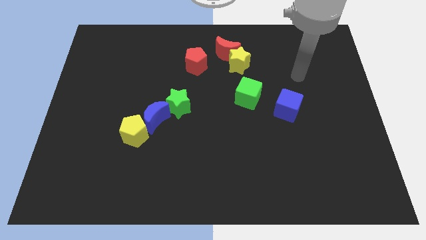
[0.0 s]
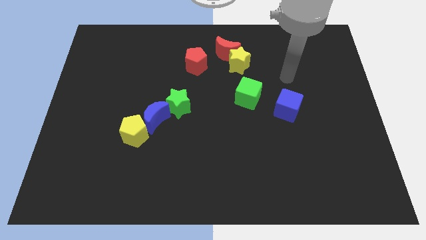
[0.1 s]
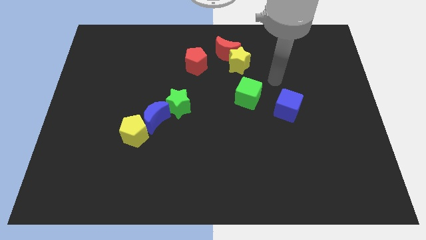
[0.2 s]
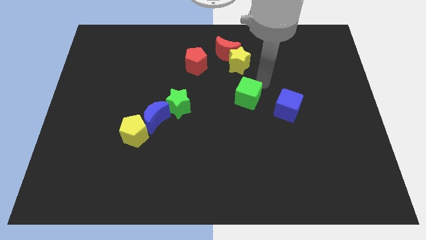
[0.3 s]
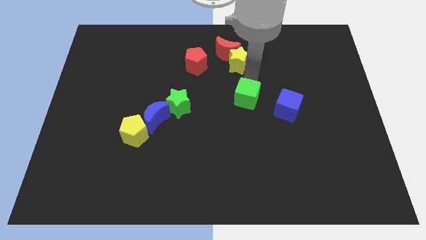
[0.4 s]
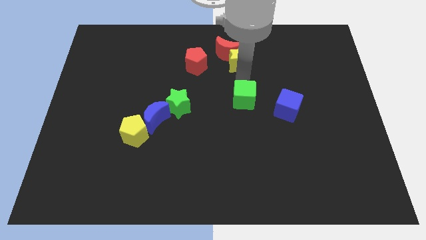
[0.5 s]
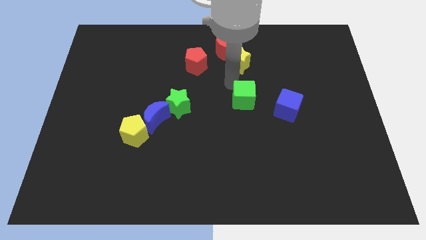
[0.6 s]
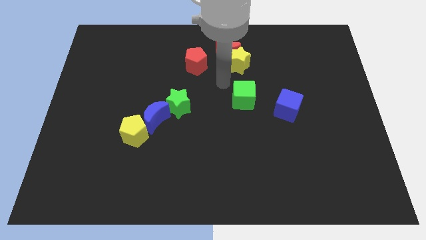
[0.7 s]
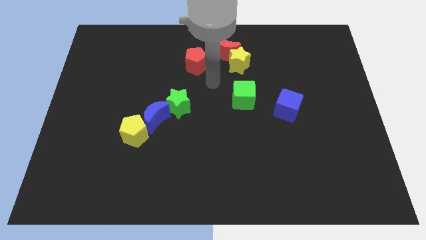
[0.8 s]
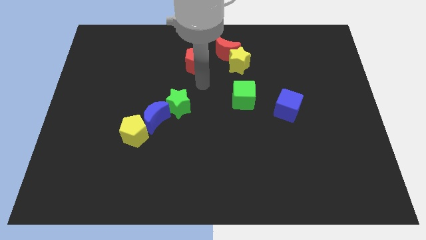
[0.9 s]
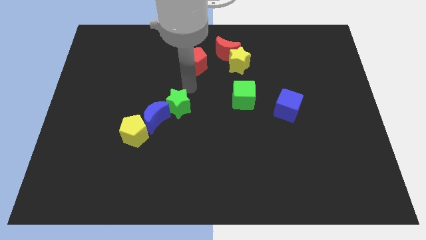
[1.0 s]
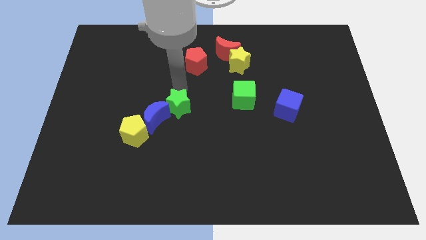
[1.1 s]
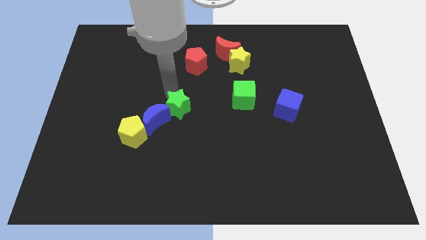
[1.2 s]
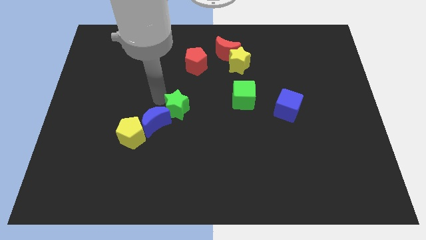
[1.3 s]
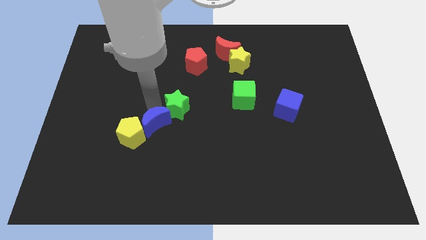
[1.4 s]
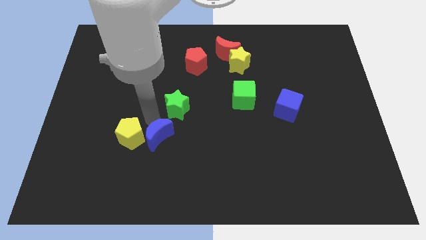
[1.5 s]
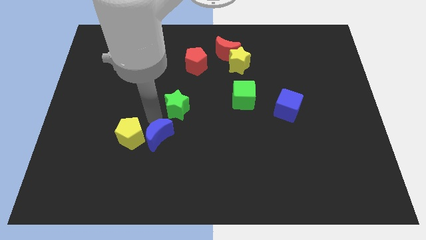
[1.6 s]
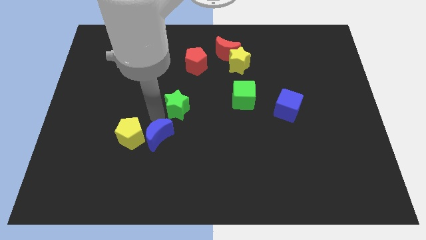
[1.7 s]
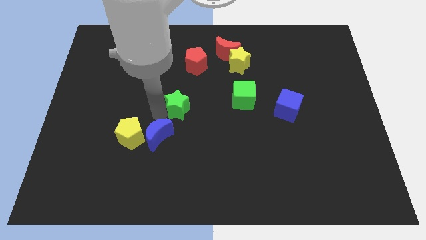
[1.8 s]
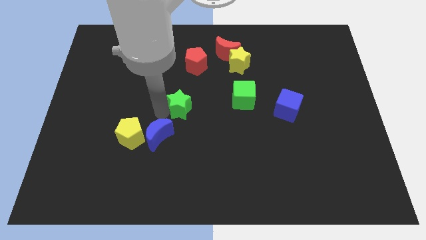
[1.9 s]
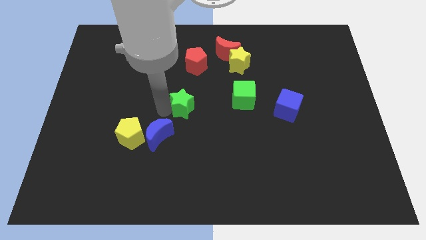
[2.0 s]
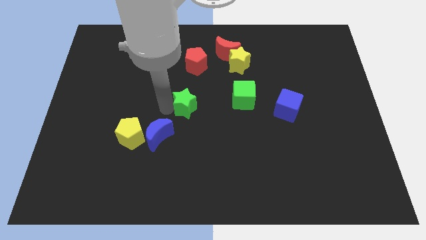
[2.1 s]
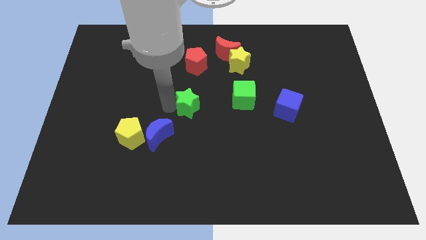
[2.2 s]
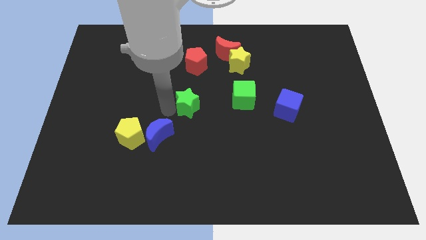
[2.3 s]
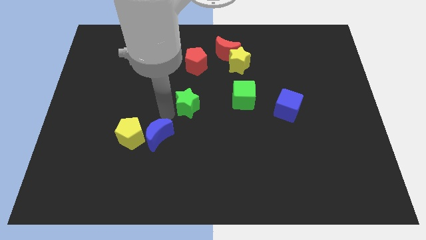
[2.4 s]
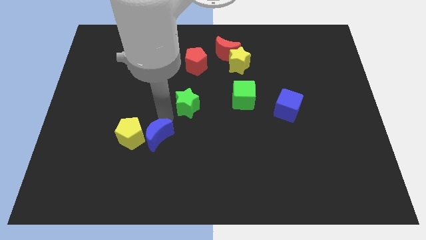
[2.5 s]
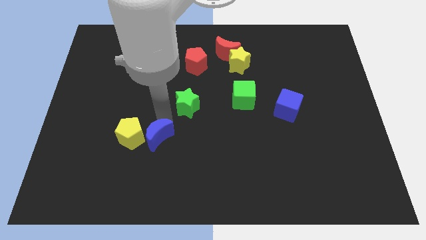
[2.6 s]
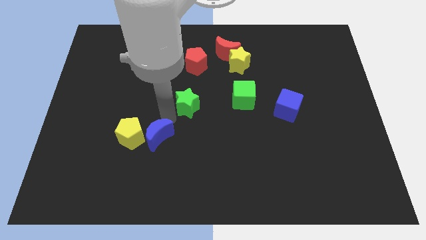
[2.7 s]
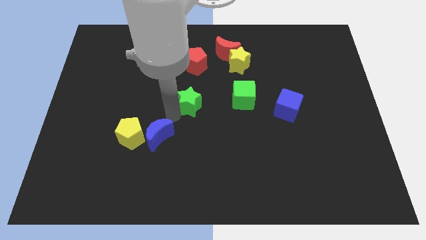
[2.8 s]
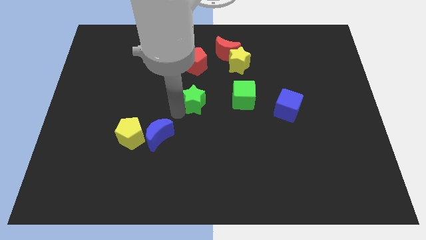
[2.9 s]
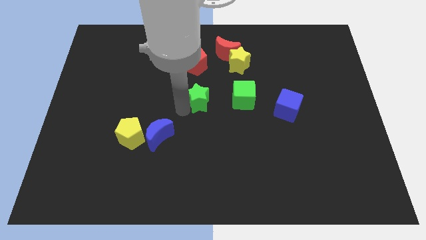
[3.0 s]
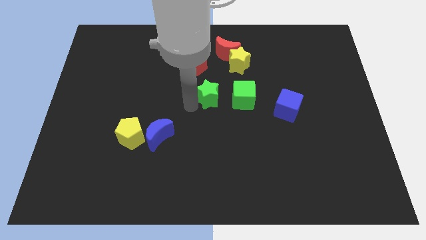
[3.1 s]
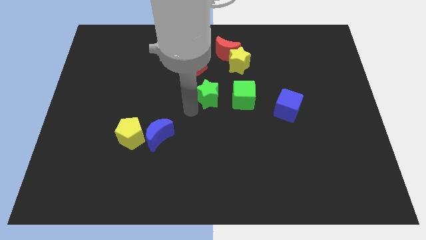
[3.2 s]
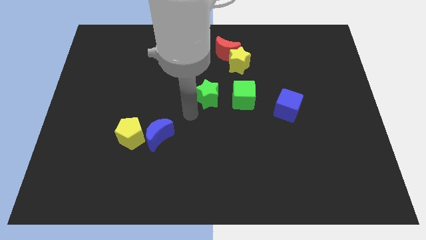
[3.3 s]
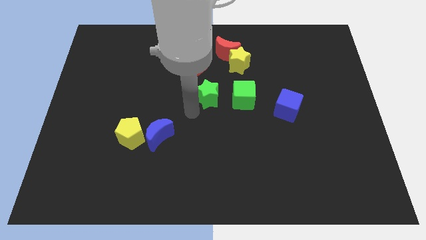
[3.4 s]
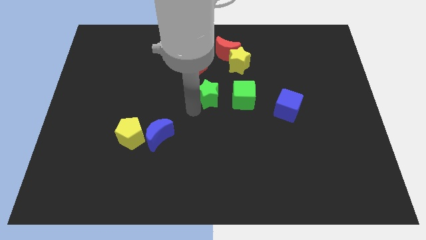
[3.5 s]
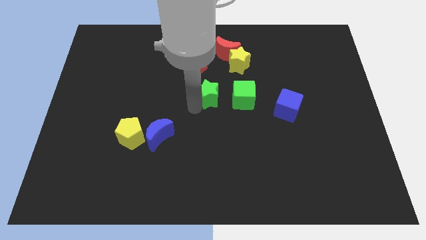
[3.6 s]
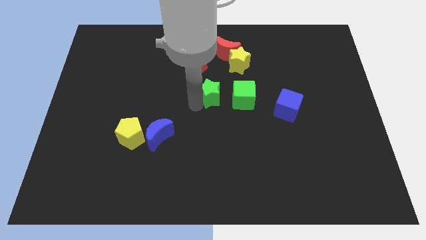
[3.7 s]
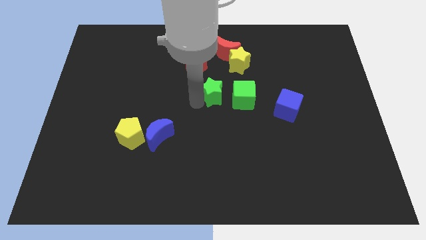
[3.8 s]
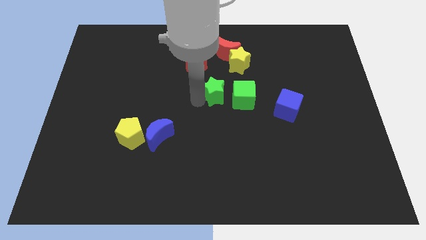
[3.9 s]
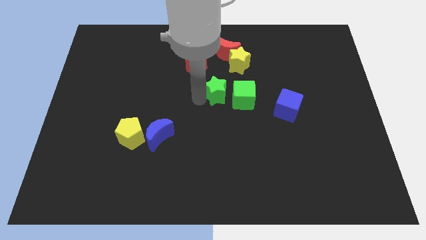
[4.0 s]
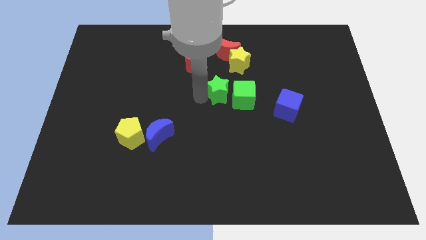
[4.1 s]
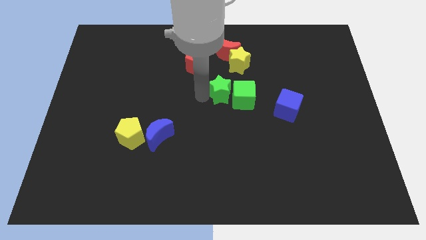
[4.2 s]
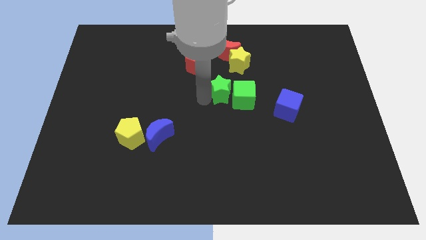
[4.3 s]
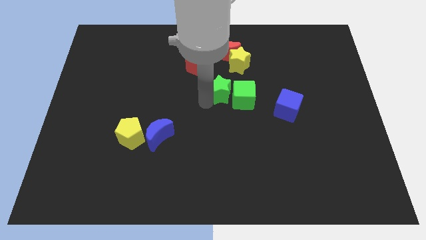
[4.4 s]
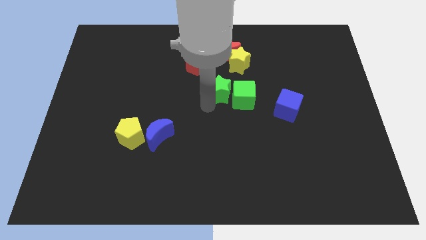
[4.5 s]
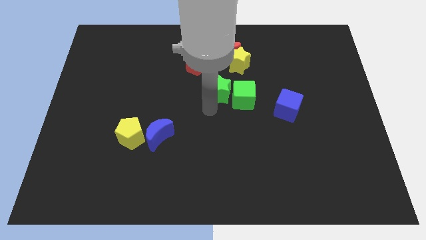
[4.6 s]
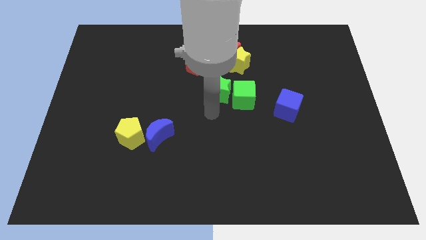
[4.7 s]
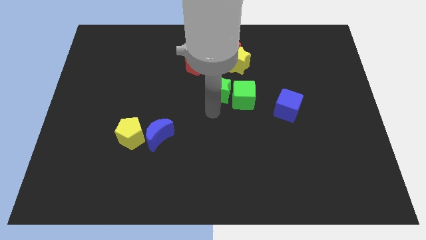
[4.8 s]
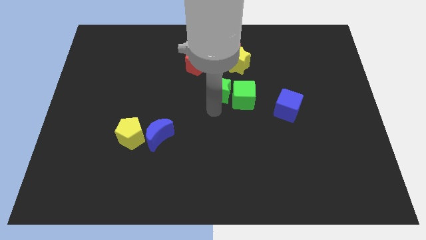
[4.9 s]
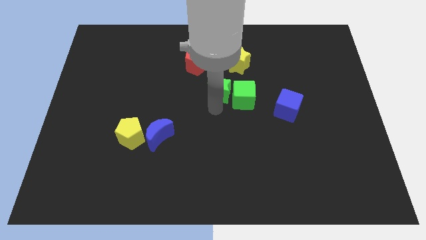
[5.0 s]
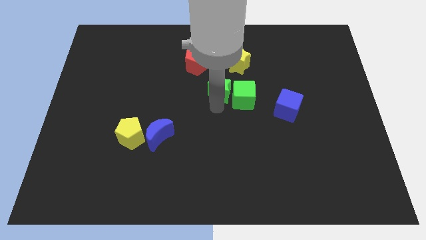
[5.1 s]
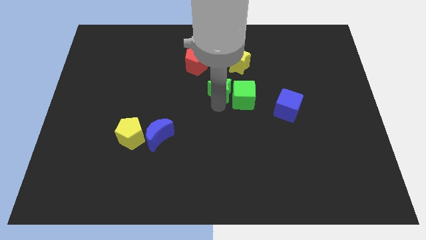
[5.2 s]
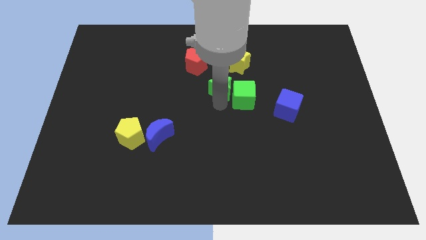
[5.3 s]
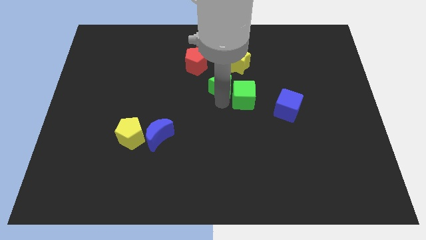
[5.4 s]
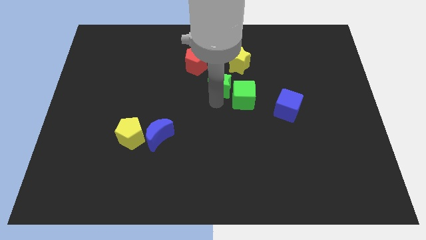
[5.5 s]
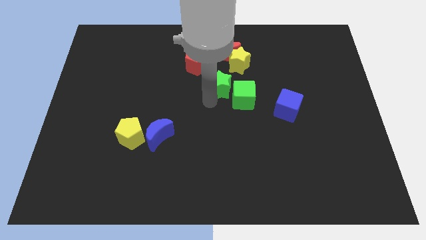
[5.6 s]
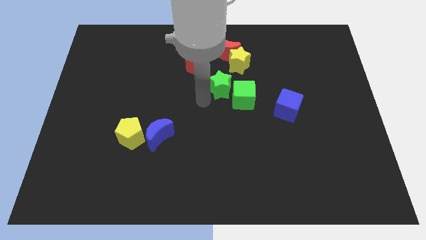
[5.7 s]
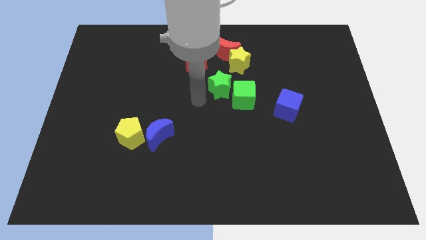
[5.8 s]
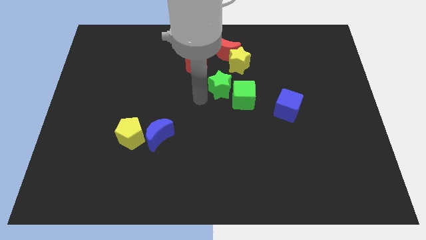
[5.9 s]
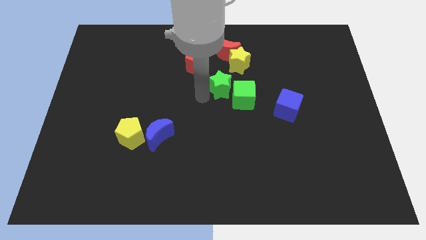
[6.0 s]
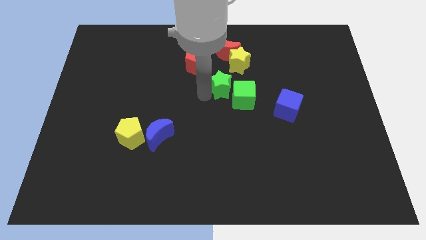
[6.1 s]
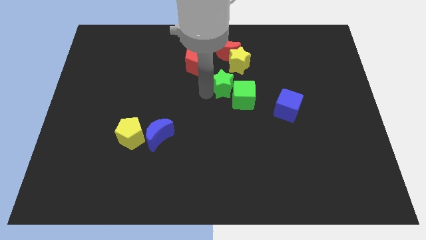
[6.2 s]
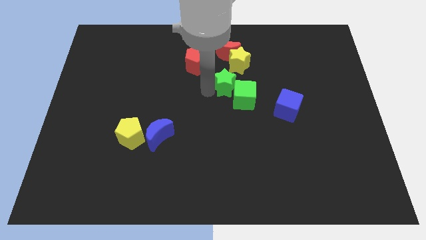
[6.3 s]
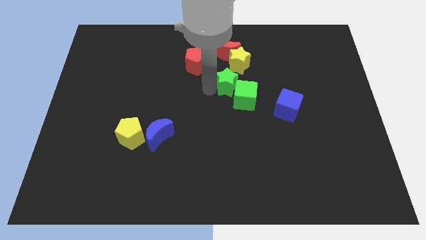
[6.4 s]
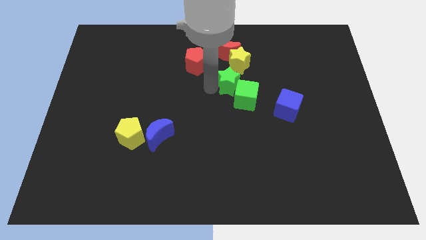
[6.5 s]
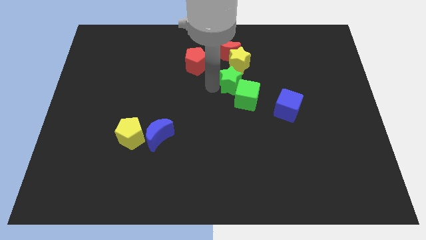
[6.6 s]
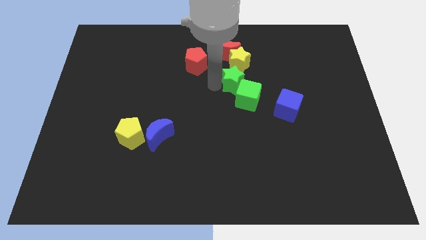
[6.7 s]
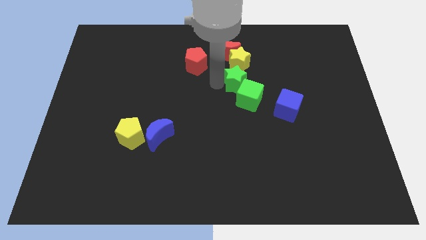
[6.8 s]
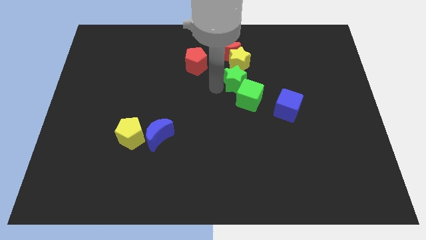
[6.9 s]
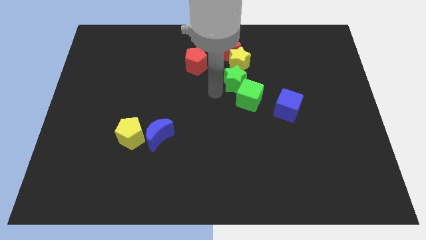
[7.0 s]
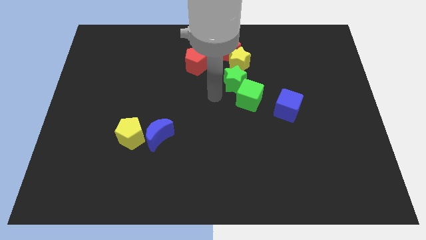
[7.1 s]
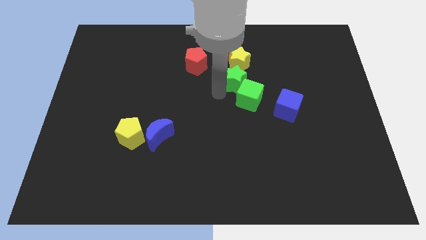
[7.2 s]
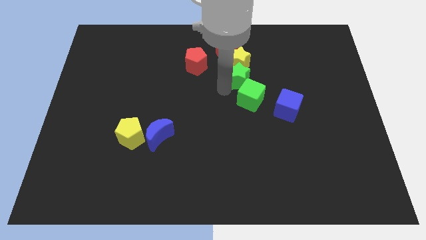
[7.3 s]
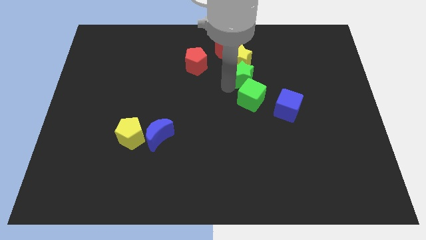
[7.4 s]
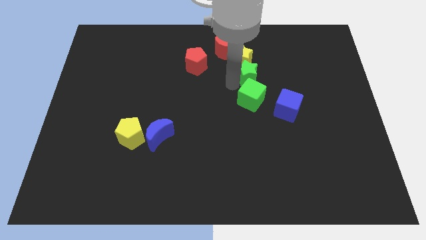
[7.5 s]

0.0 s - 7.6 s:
move the green star to the right side of the red pentagon
